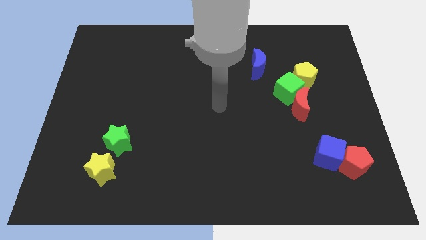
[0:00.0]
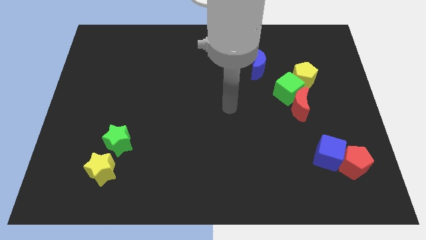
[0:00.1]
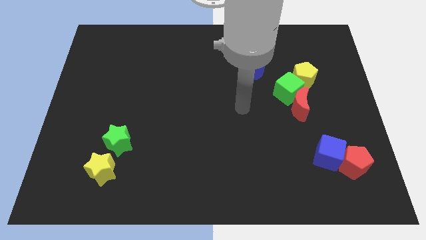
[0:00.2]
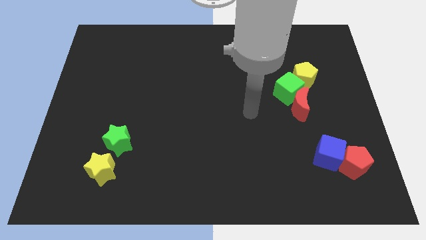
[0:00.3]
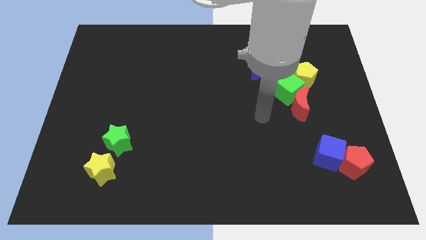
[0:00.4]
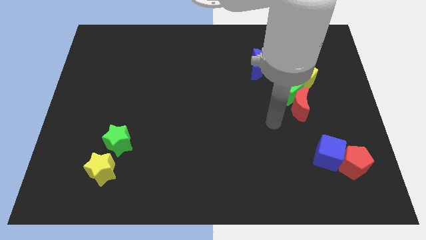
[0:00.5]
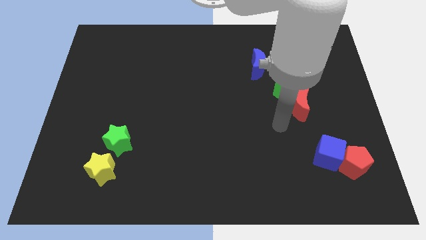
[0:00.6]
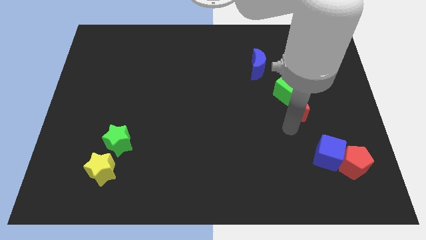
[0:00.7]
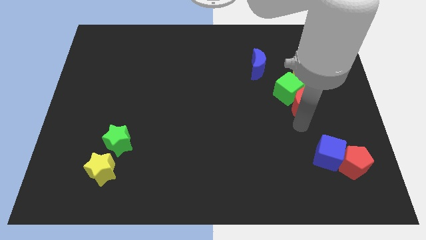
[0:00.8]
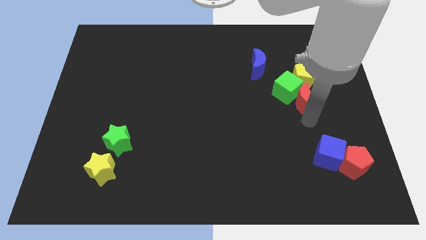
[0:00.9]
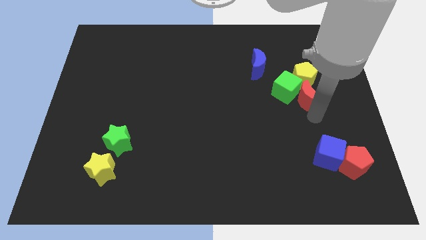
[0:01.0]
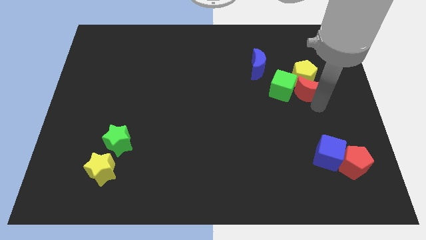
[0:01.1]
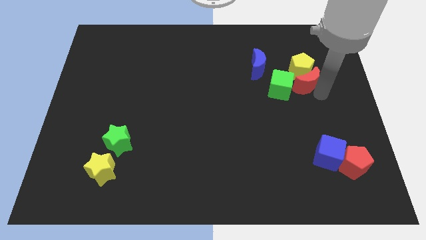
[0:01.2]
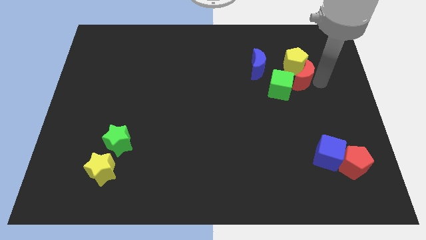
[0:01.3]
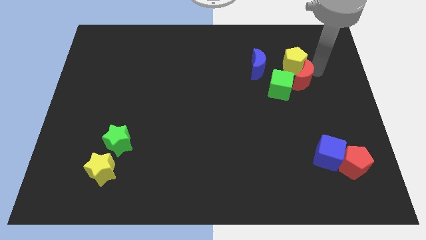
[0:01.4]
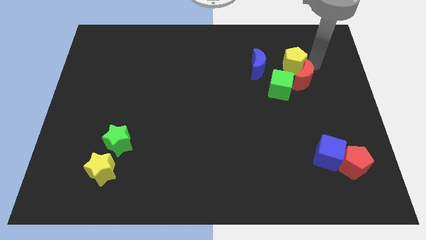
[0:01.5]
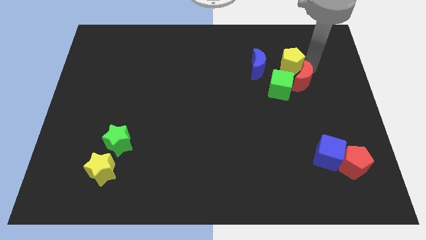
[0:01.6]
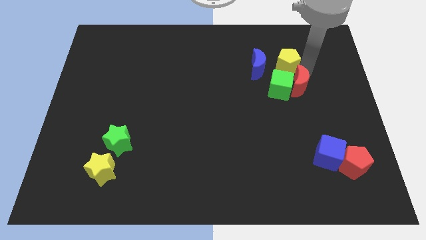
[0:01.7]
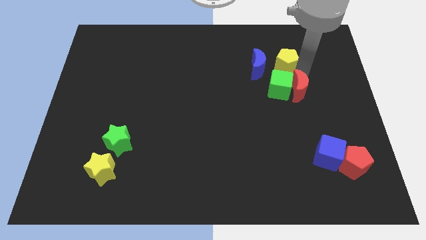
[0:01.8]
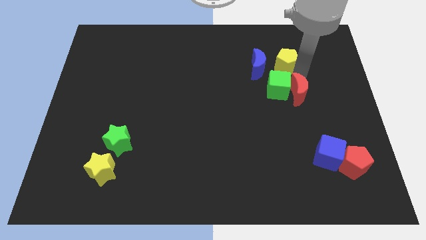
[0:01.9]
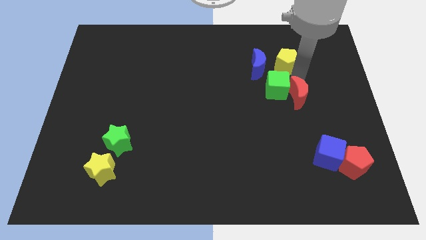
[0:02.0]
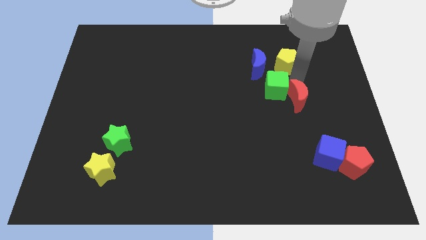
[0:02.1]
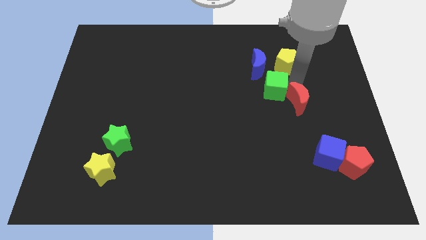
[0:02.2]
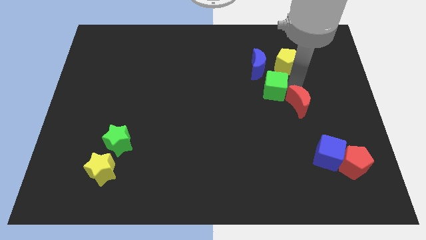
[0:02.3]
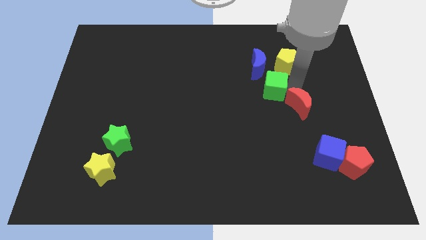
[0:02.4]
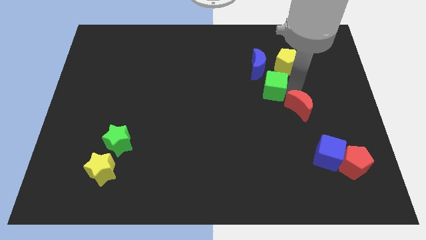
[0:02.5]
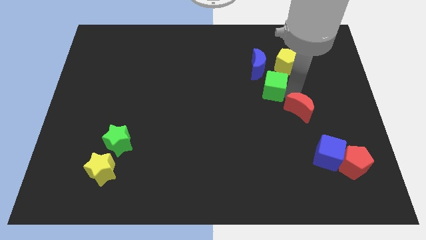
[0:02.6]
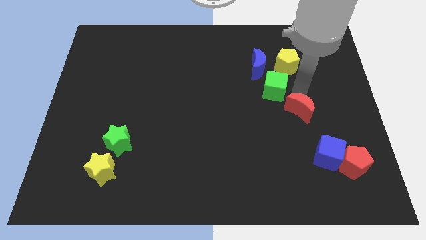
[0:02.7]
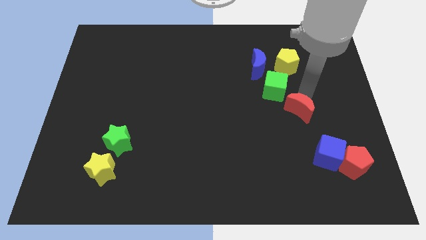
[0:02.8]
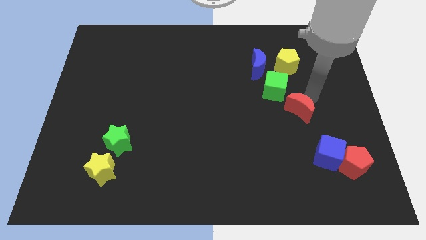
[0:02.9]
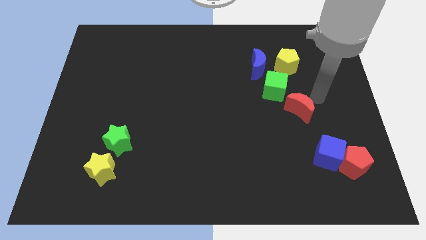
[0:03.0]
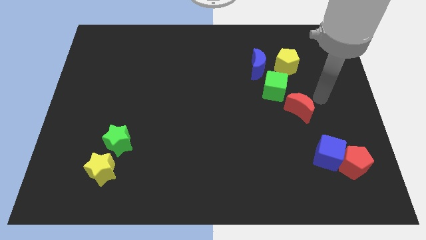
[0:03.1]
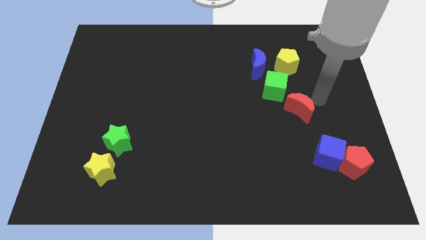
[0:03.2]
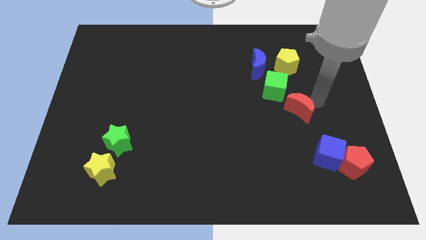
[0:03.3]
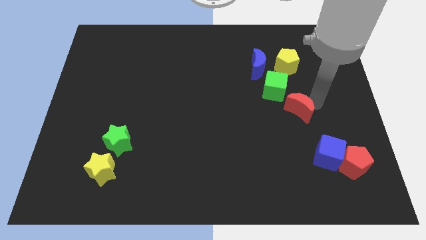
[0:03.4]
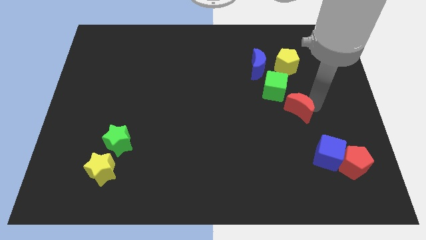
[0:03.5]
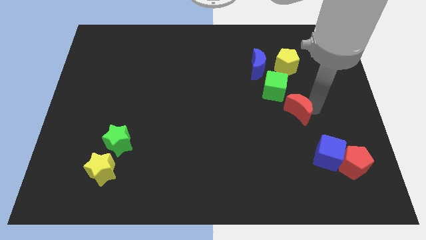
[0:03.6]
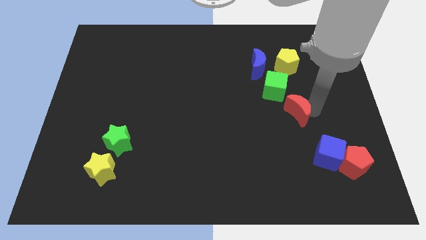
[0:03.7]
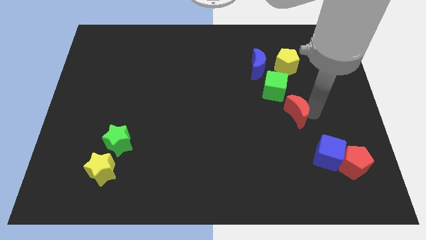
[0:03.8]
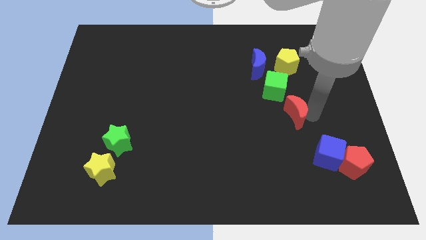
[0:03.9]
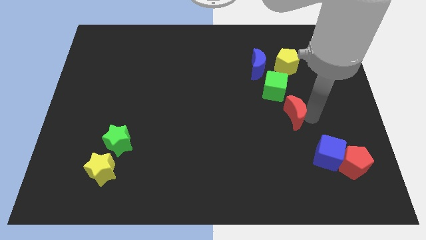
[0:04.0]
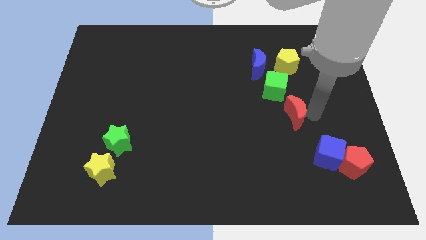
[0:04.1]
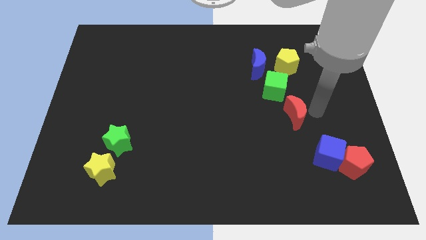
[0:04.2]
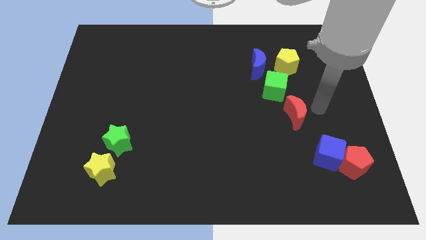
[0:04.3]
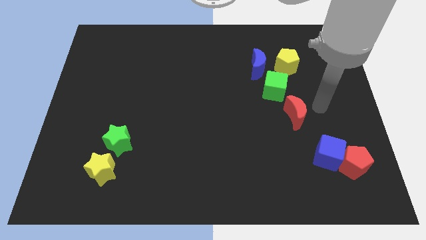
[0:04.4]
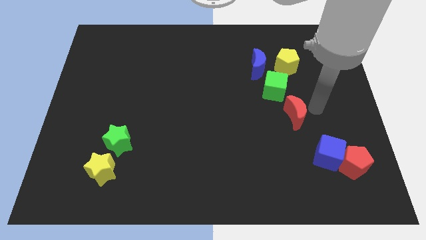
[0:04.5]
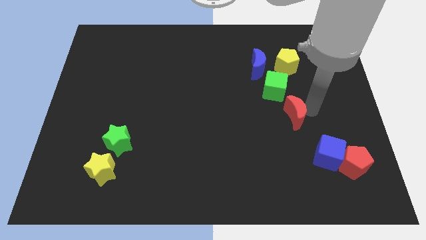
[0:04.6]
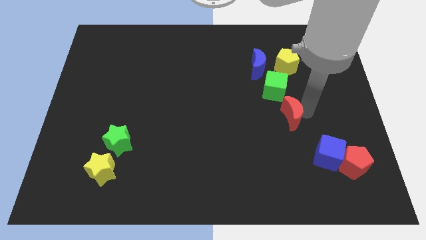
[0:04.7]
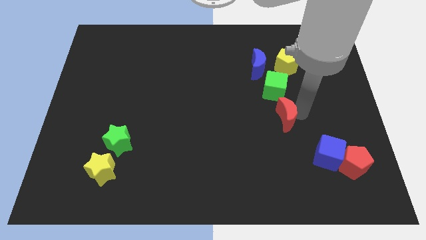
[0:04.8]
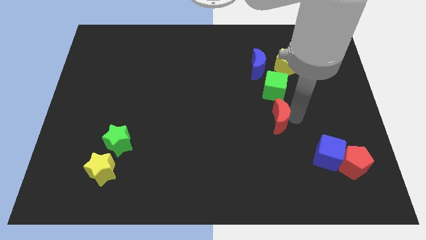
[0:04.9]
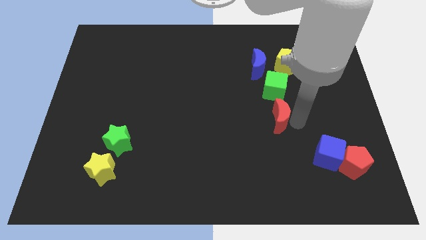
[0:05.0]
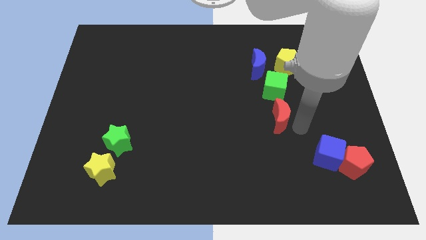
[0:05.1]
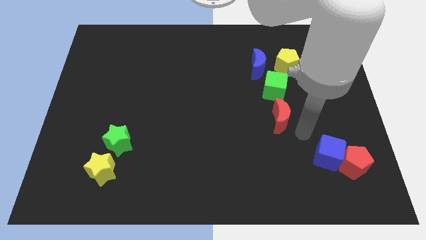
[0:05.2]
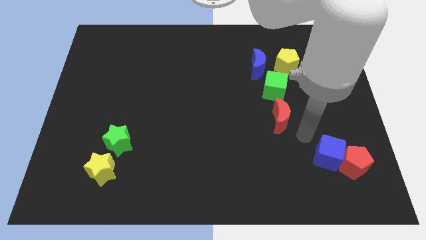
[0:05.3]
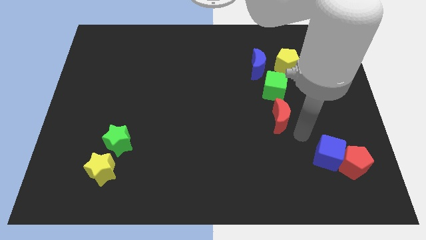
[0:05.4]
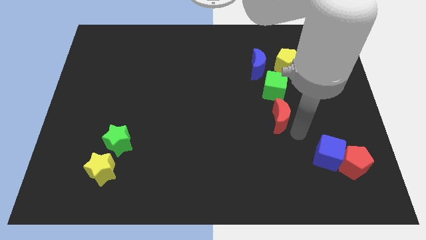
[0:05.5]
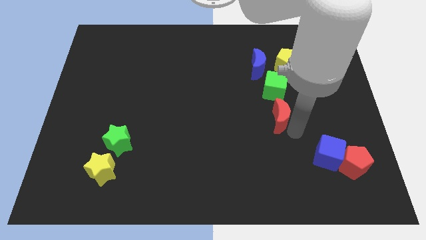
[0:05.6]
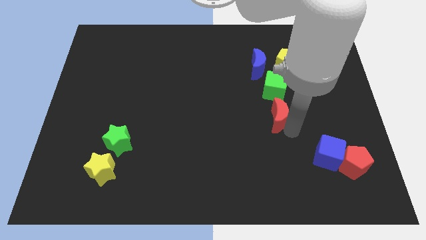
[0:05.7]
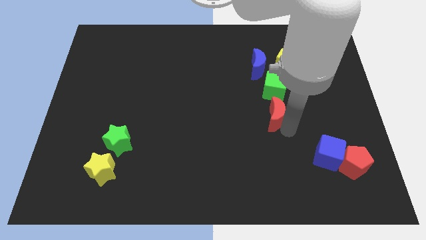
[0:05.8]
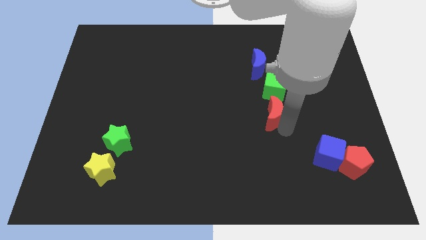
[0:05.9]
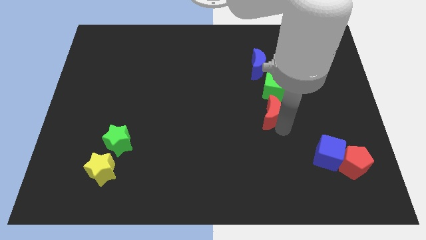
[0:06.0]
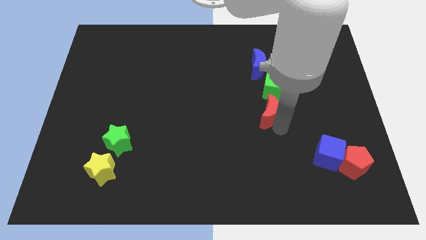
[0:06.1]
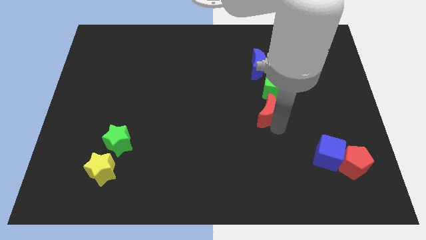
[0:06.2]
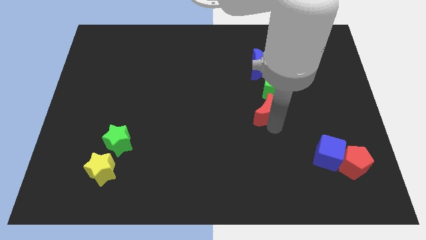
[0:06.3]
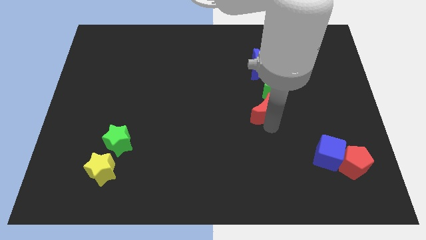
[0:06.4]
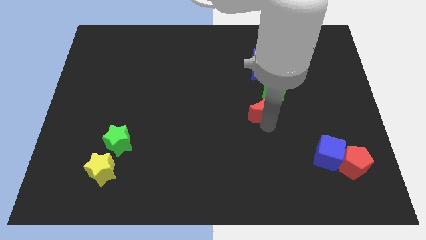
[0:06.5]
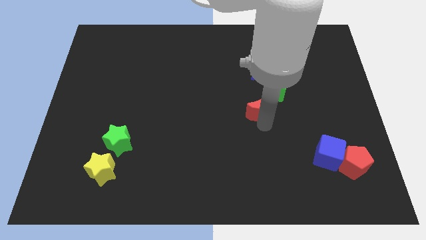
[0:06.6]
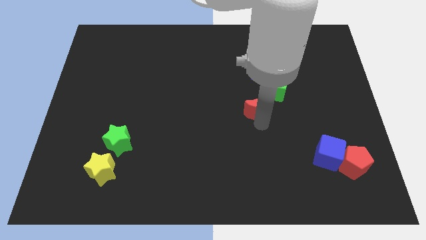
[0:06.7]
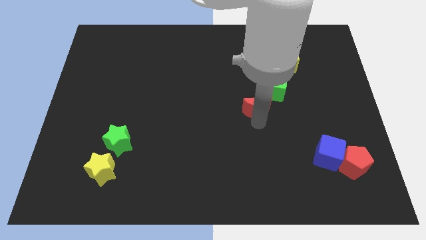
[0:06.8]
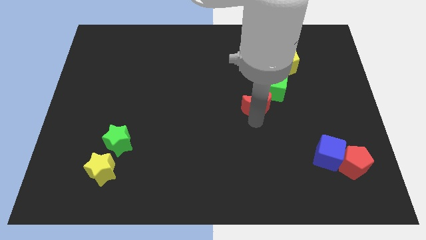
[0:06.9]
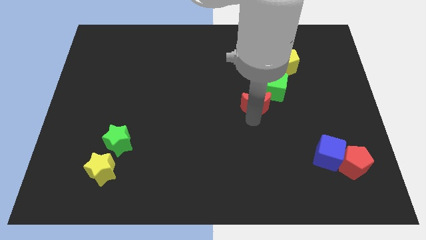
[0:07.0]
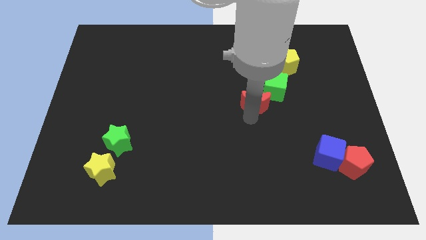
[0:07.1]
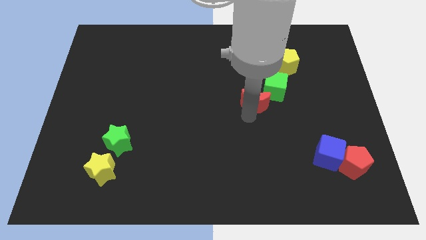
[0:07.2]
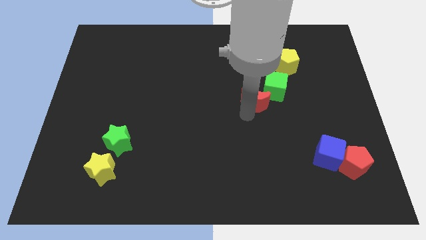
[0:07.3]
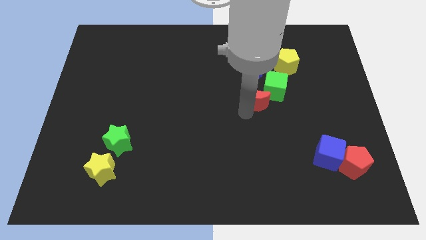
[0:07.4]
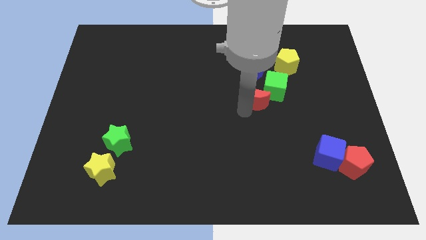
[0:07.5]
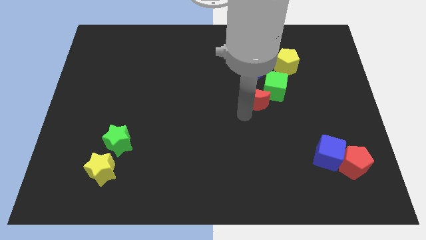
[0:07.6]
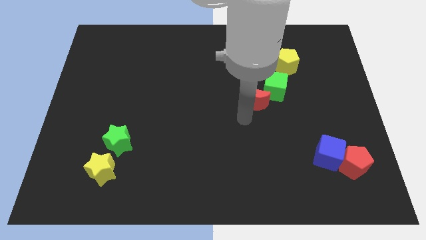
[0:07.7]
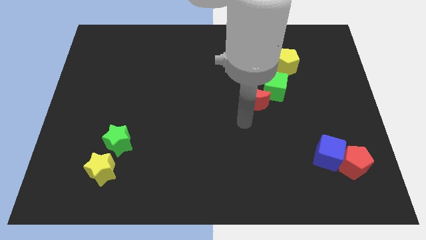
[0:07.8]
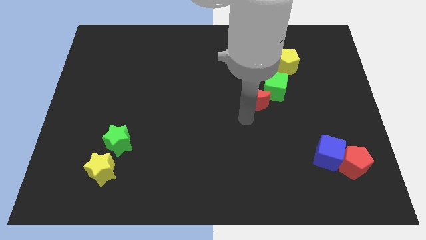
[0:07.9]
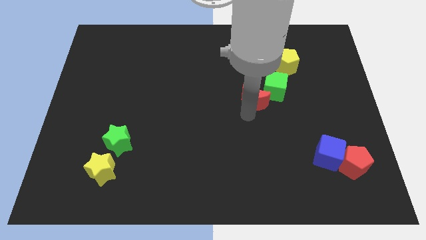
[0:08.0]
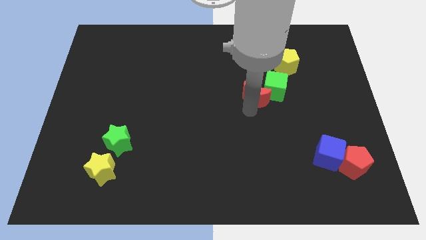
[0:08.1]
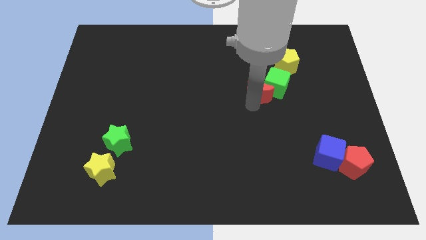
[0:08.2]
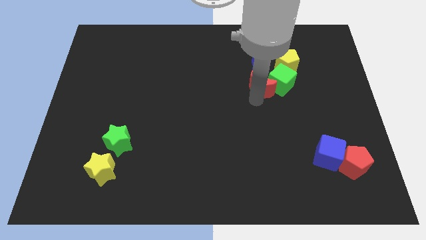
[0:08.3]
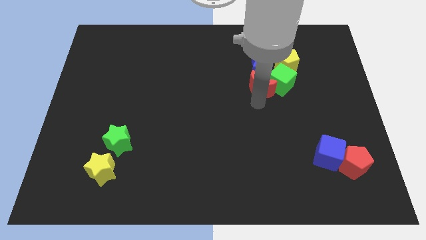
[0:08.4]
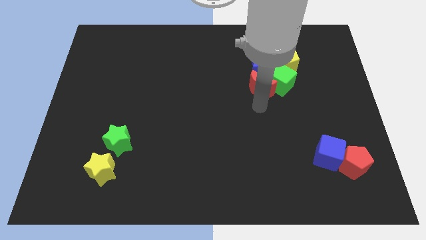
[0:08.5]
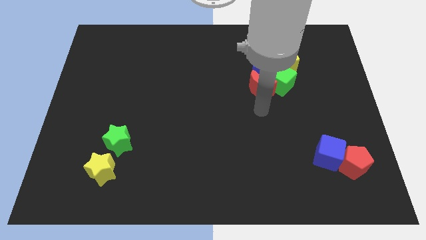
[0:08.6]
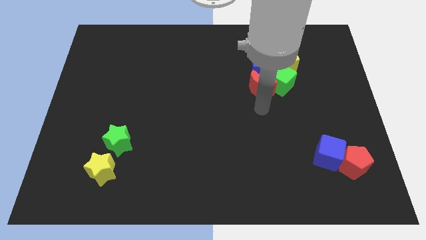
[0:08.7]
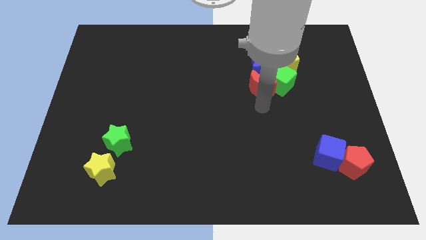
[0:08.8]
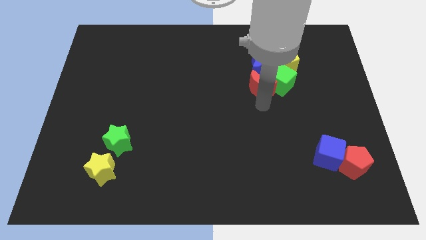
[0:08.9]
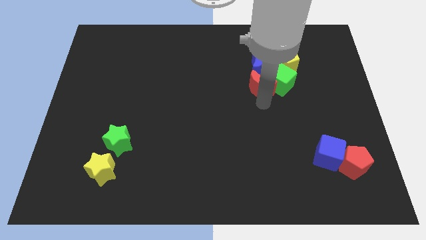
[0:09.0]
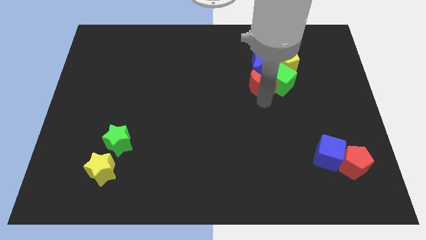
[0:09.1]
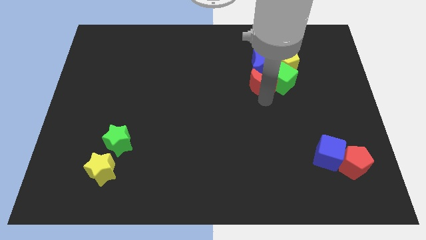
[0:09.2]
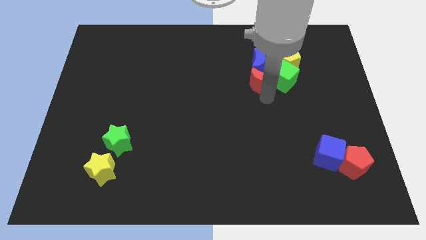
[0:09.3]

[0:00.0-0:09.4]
move the red moon next to the blue moon
